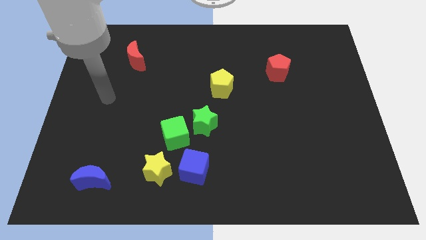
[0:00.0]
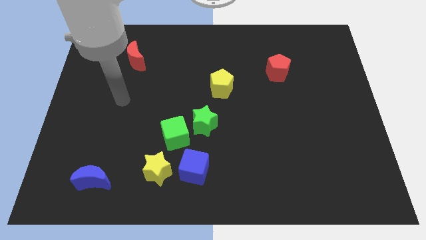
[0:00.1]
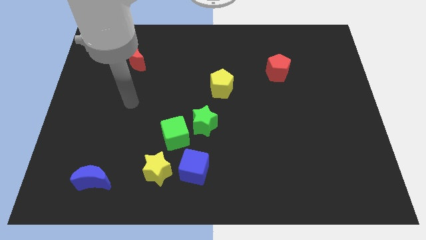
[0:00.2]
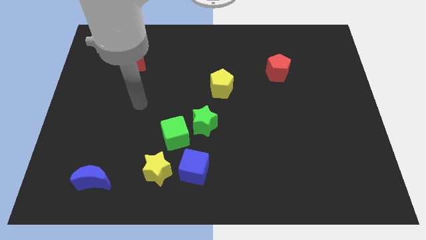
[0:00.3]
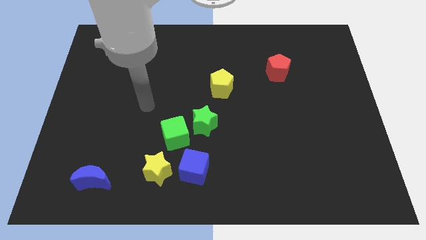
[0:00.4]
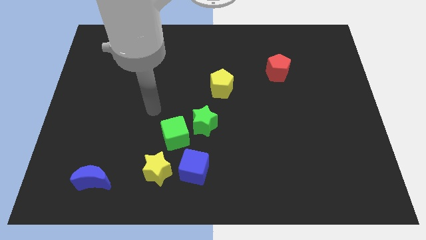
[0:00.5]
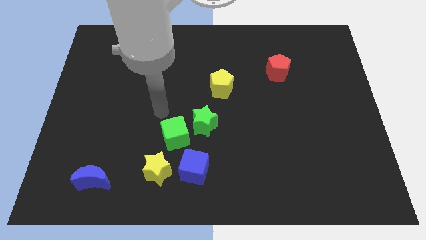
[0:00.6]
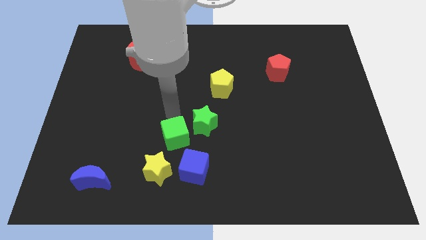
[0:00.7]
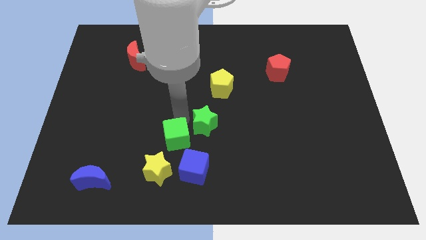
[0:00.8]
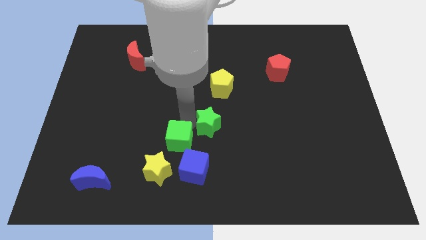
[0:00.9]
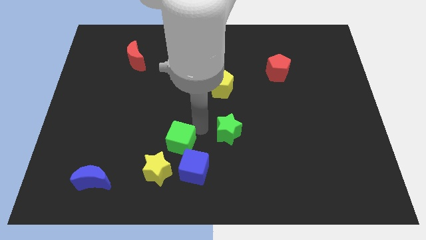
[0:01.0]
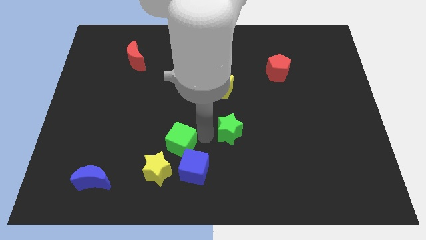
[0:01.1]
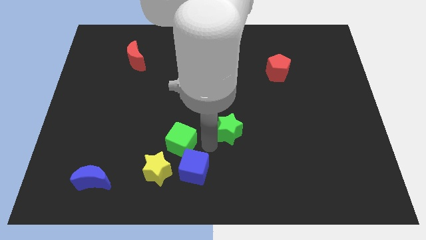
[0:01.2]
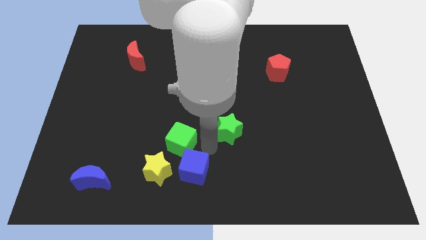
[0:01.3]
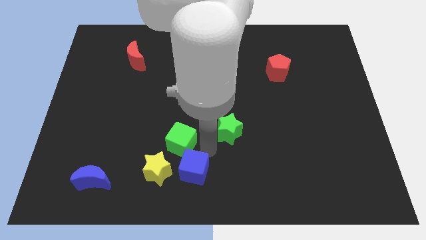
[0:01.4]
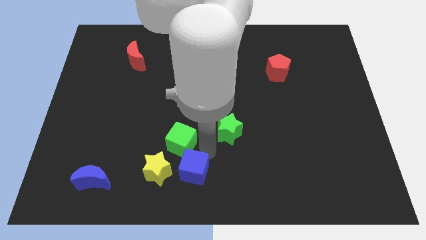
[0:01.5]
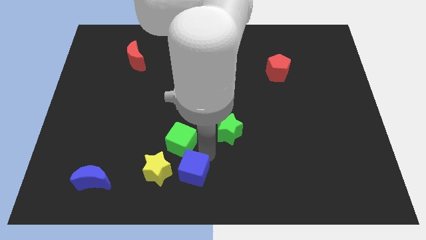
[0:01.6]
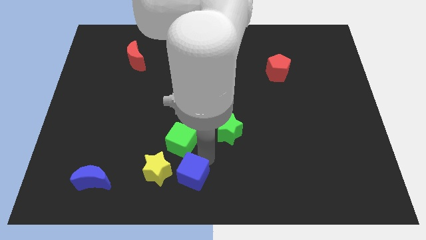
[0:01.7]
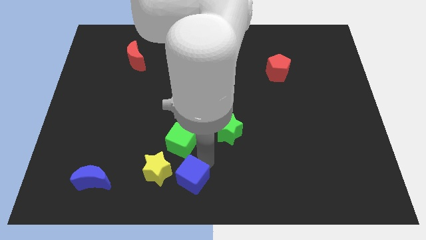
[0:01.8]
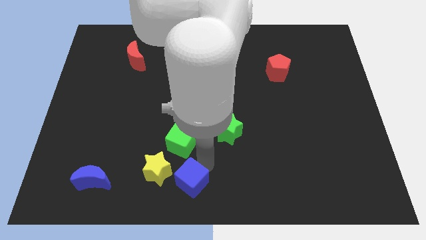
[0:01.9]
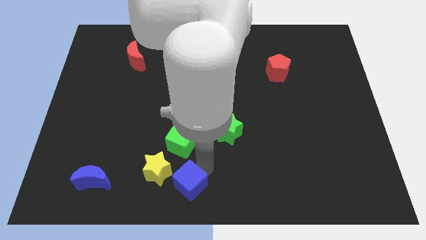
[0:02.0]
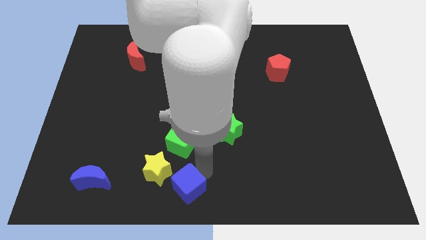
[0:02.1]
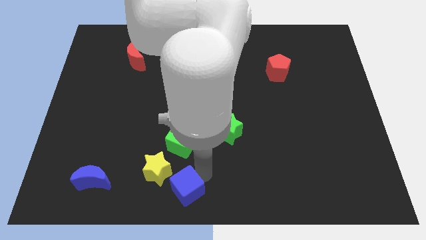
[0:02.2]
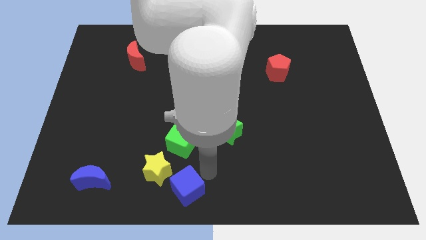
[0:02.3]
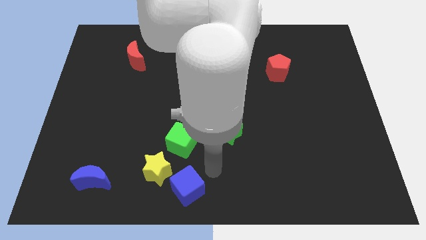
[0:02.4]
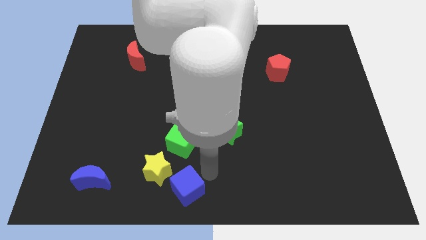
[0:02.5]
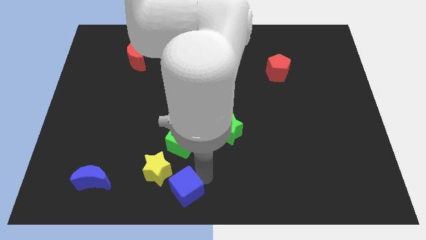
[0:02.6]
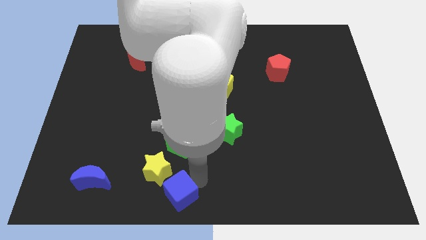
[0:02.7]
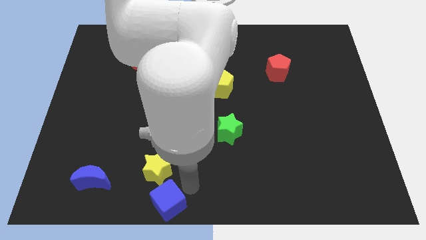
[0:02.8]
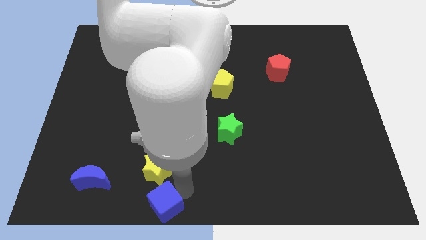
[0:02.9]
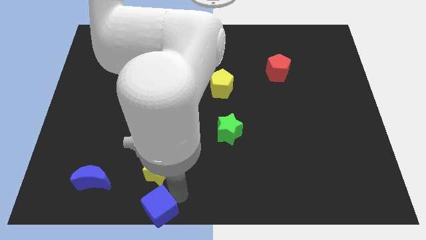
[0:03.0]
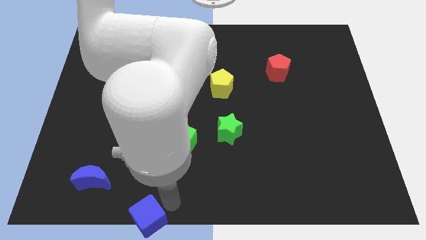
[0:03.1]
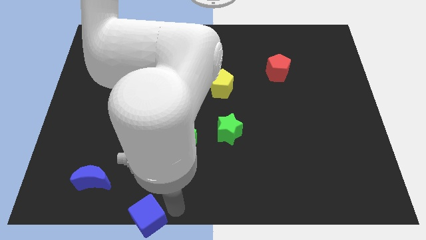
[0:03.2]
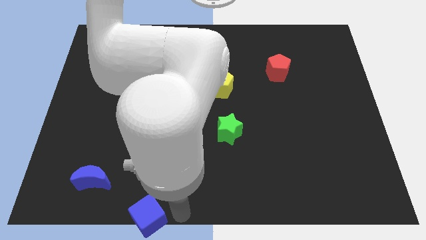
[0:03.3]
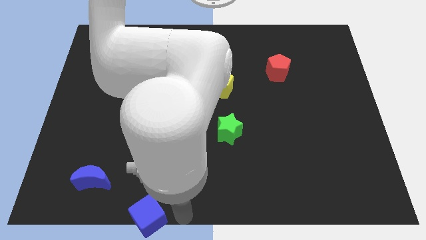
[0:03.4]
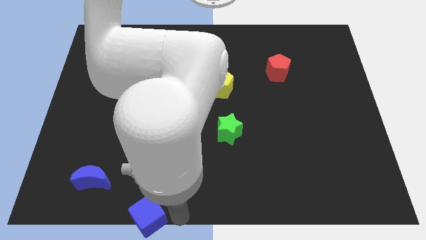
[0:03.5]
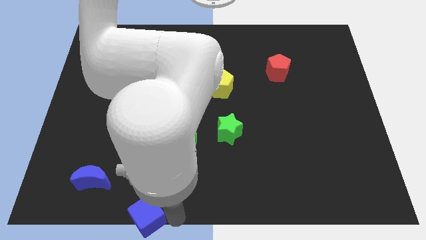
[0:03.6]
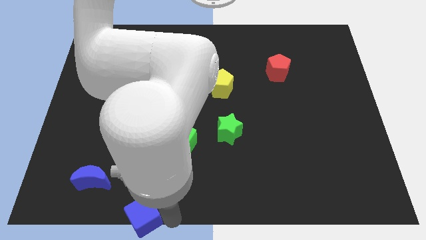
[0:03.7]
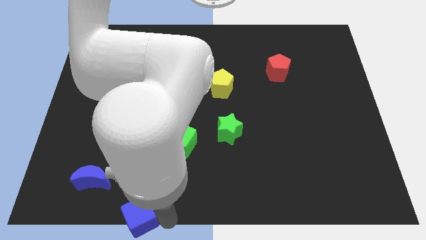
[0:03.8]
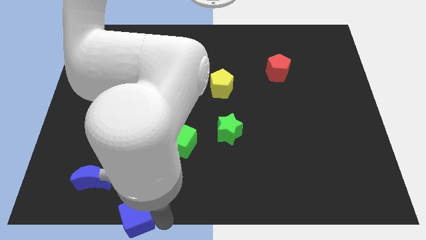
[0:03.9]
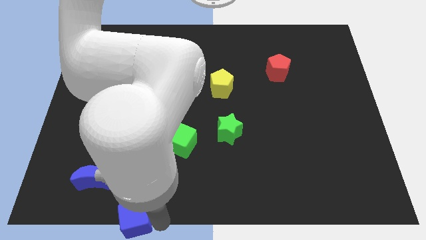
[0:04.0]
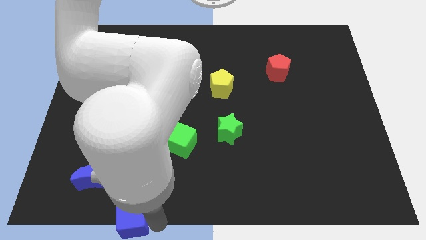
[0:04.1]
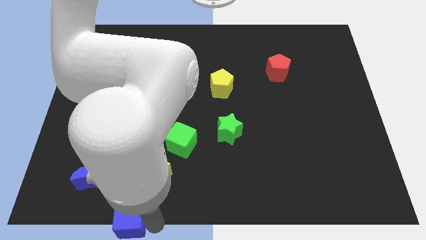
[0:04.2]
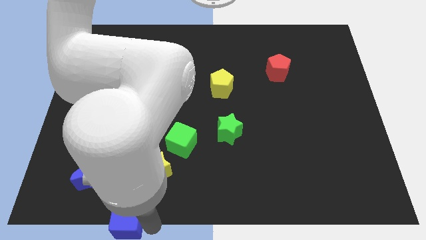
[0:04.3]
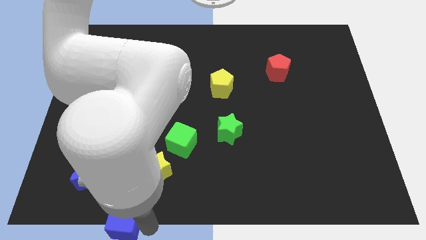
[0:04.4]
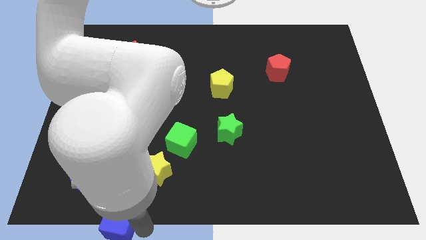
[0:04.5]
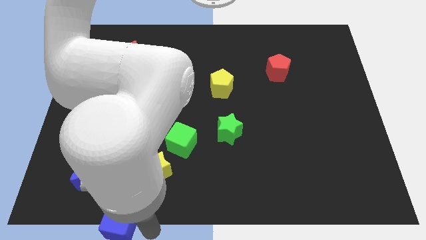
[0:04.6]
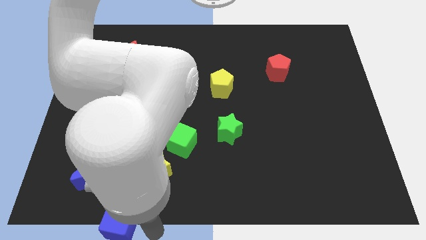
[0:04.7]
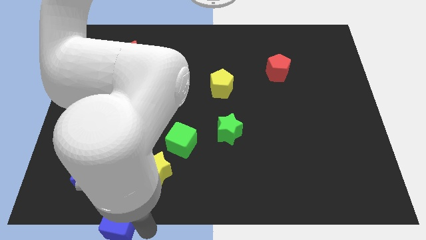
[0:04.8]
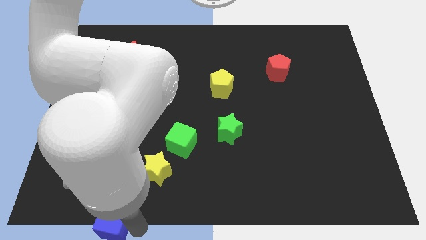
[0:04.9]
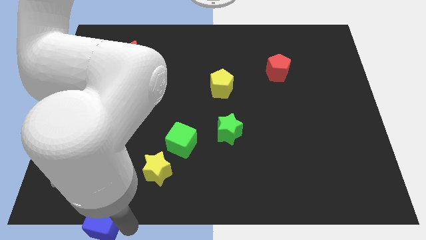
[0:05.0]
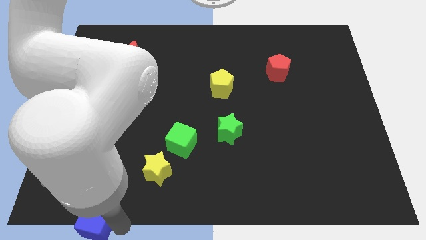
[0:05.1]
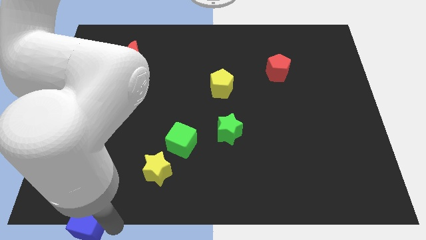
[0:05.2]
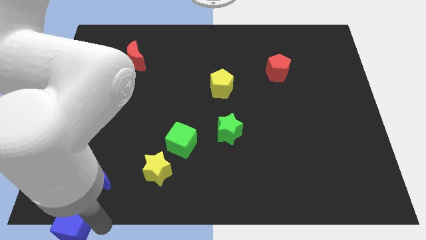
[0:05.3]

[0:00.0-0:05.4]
move the blue cube to the lower left corner

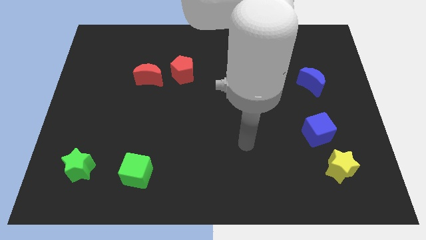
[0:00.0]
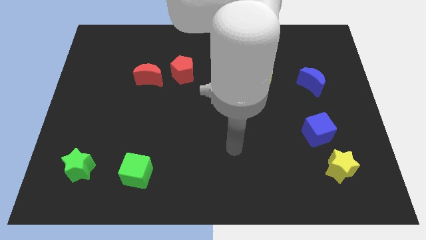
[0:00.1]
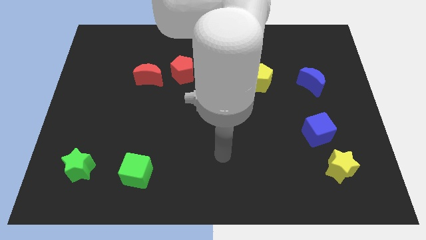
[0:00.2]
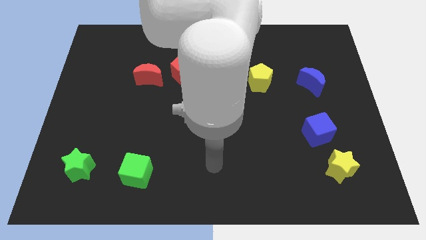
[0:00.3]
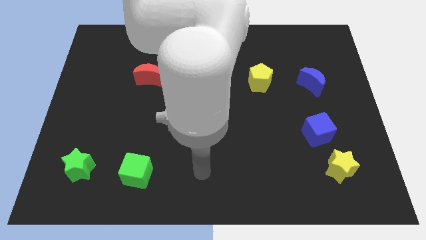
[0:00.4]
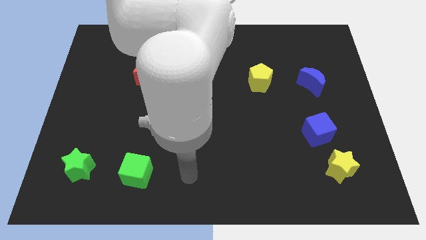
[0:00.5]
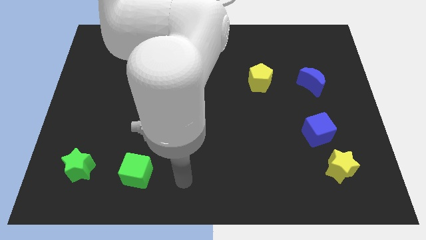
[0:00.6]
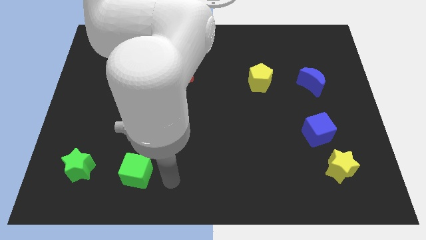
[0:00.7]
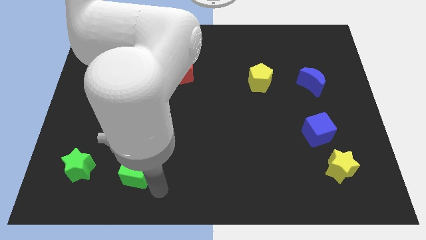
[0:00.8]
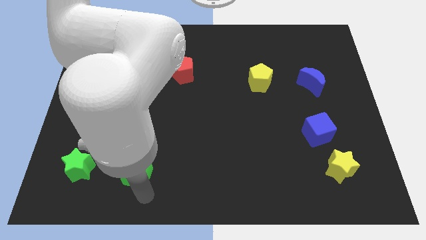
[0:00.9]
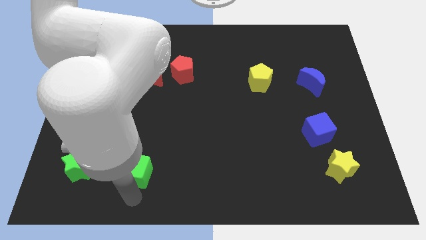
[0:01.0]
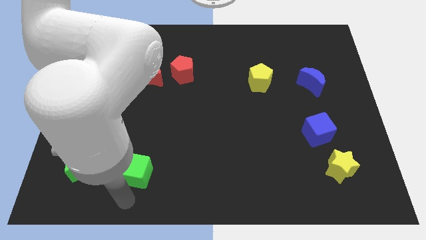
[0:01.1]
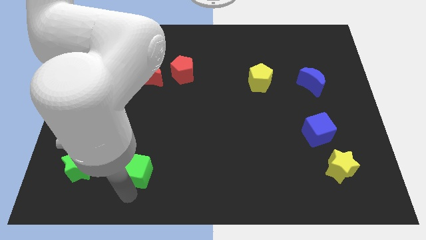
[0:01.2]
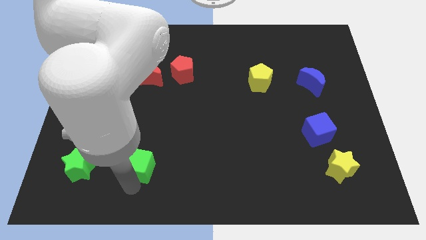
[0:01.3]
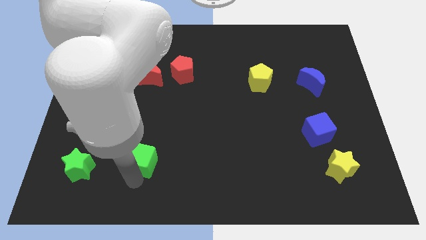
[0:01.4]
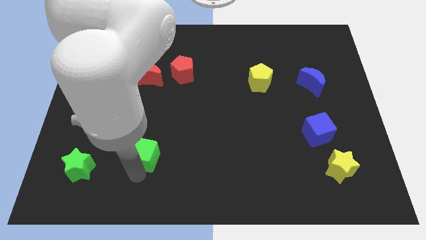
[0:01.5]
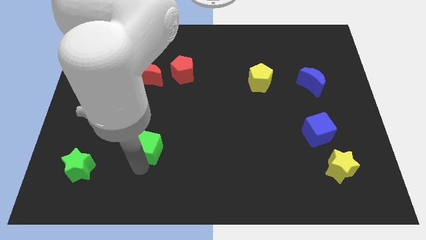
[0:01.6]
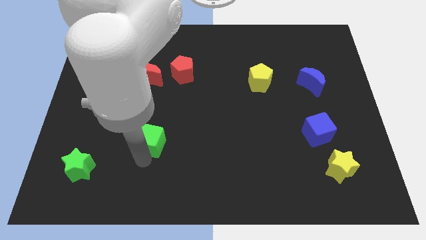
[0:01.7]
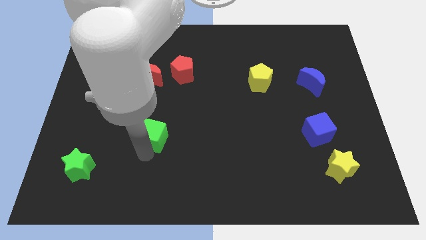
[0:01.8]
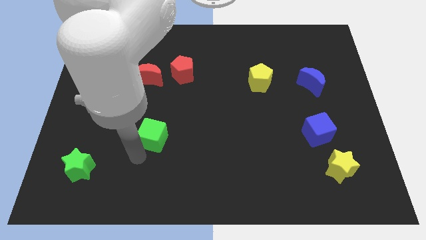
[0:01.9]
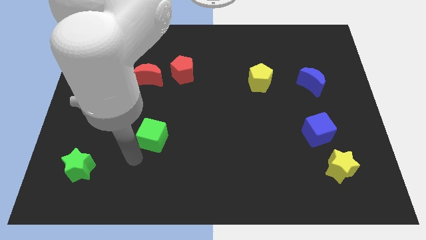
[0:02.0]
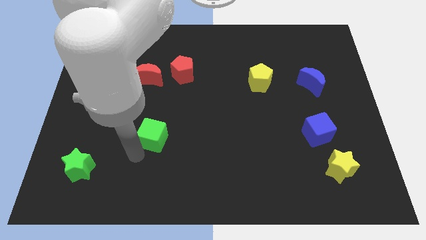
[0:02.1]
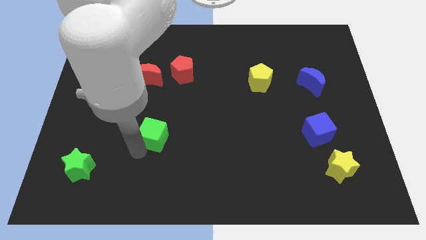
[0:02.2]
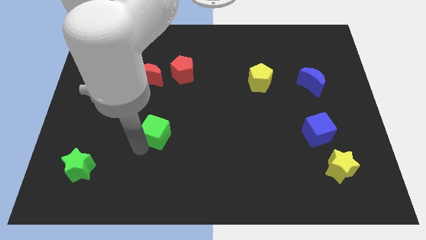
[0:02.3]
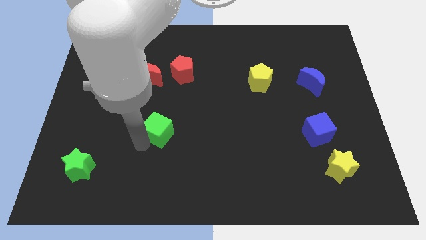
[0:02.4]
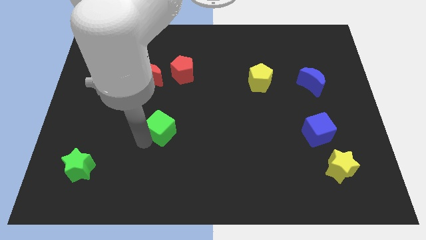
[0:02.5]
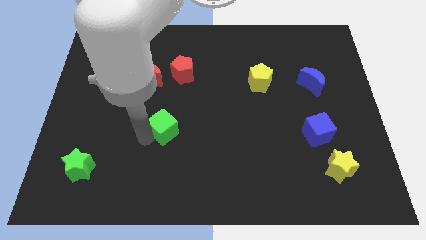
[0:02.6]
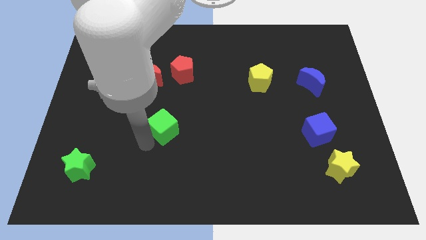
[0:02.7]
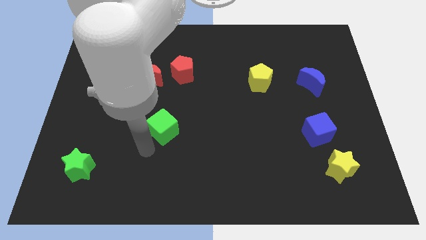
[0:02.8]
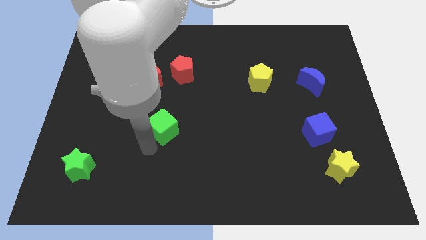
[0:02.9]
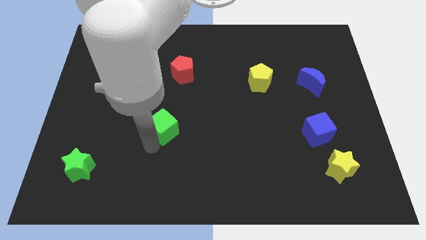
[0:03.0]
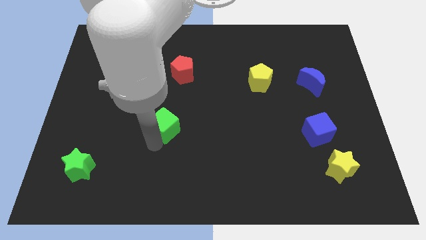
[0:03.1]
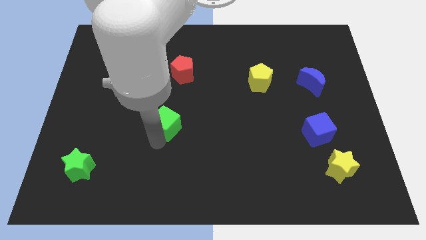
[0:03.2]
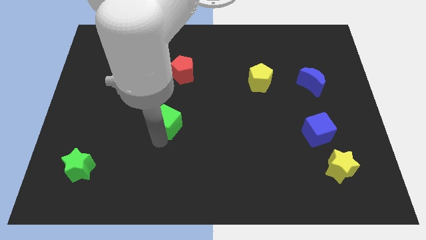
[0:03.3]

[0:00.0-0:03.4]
push the green cube to the center
